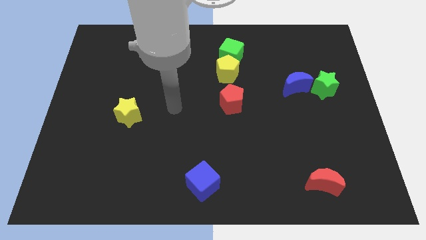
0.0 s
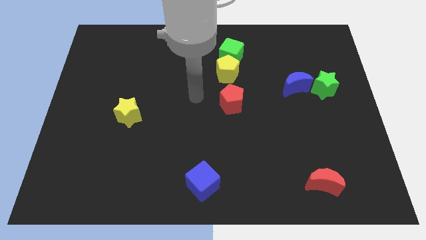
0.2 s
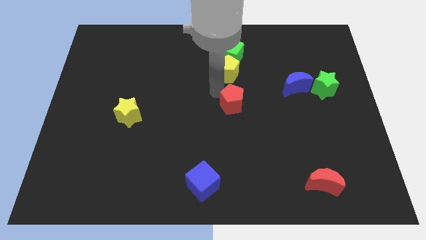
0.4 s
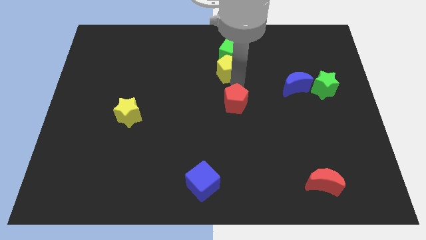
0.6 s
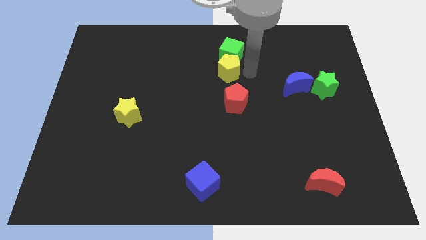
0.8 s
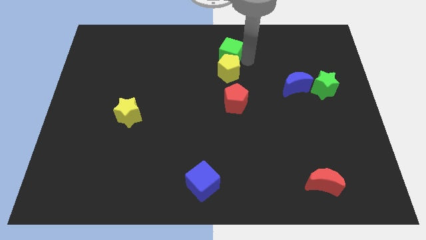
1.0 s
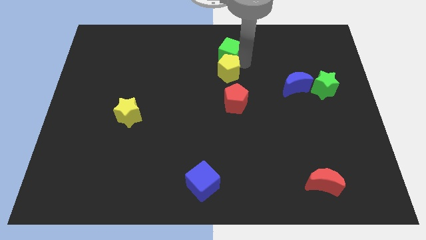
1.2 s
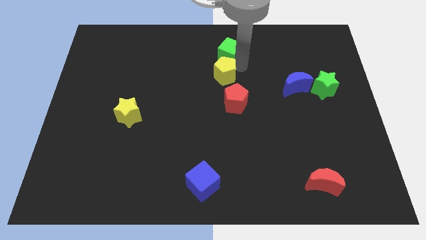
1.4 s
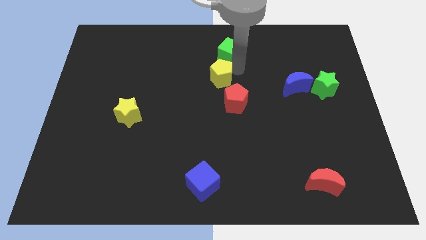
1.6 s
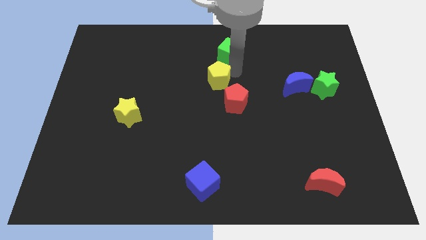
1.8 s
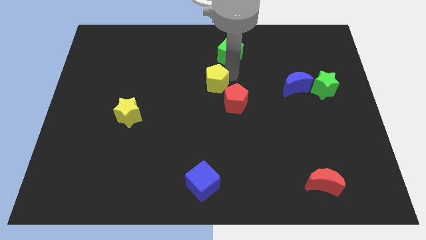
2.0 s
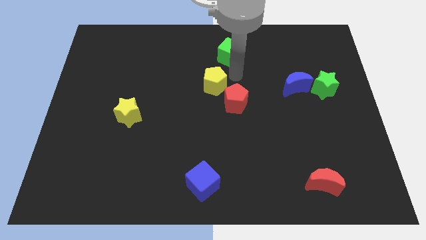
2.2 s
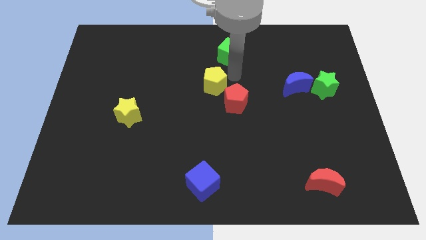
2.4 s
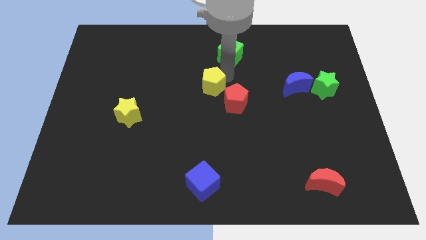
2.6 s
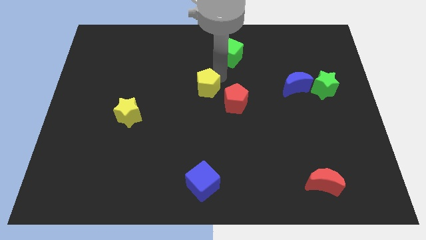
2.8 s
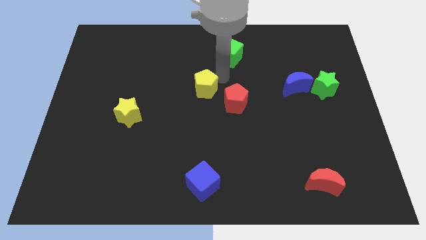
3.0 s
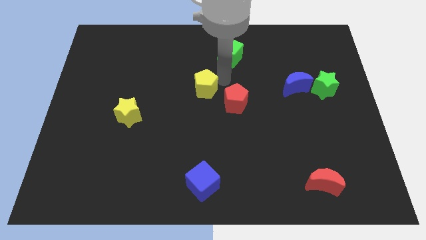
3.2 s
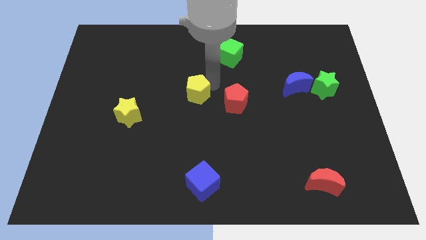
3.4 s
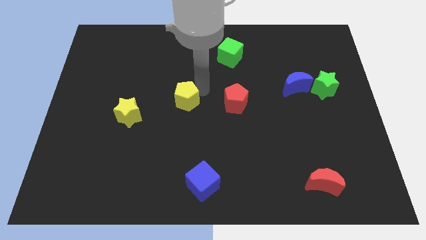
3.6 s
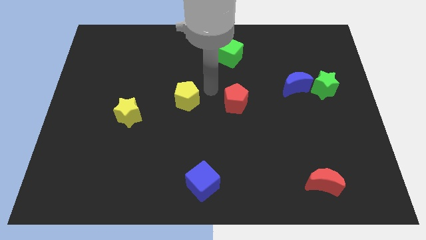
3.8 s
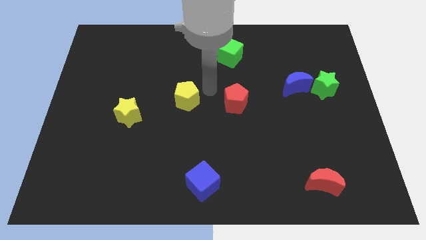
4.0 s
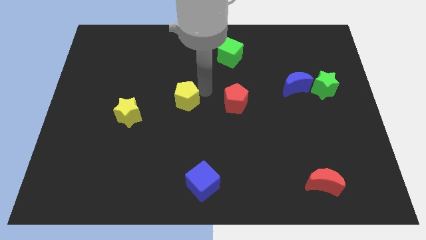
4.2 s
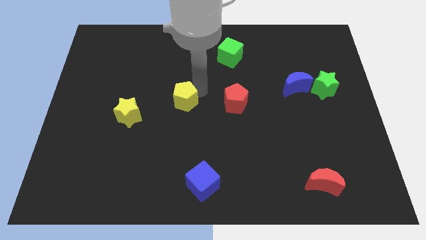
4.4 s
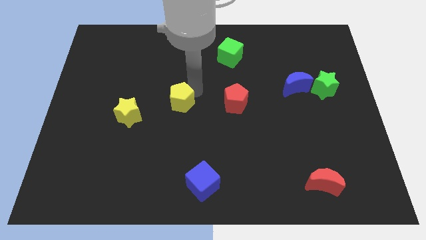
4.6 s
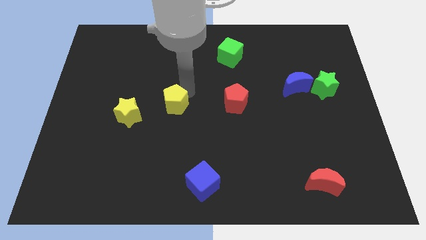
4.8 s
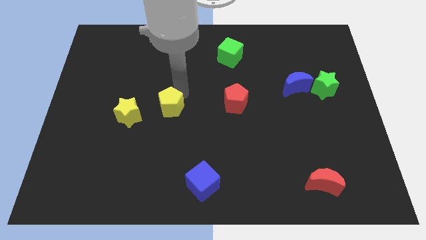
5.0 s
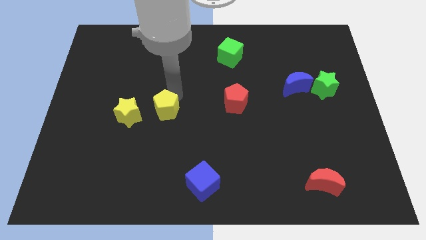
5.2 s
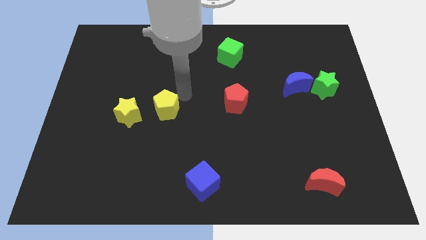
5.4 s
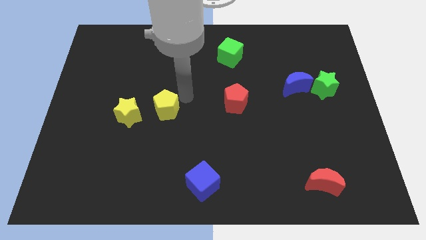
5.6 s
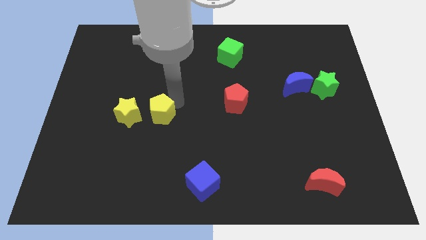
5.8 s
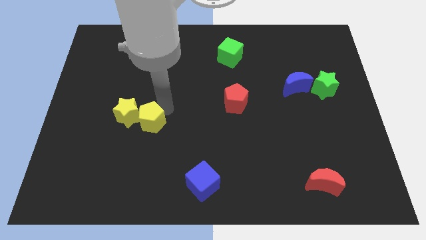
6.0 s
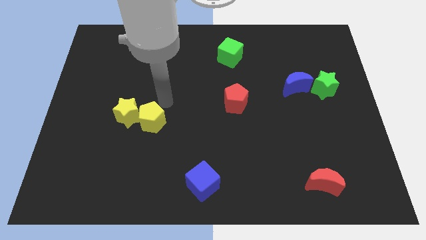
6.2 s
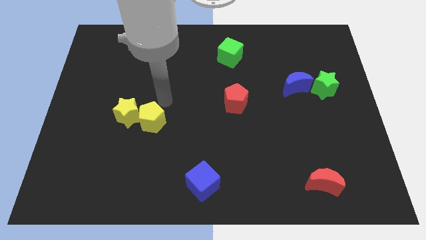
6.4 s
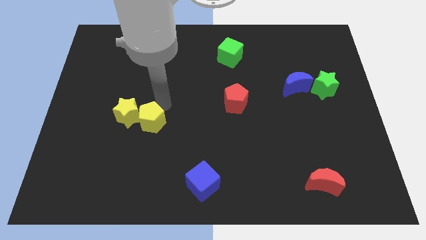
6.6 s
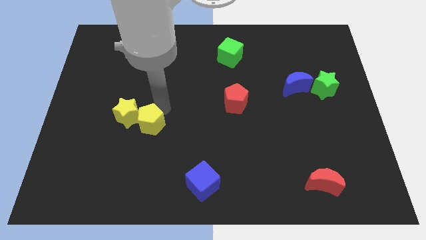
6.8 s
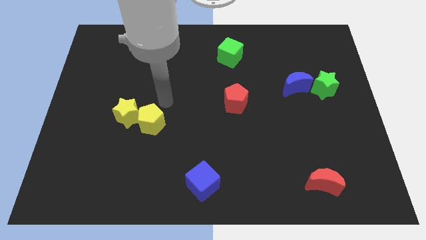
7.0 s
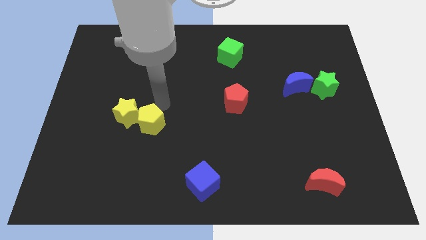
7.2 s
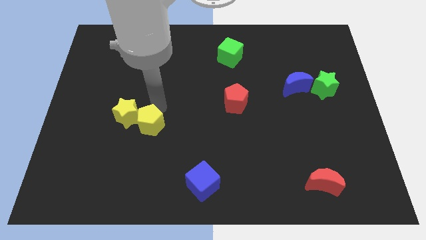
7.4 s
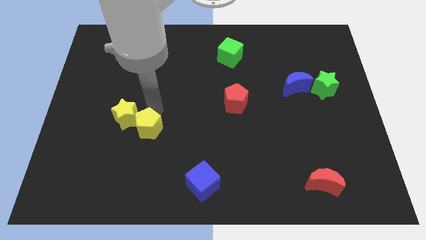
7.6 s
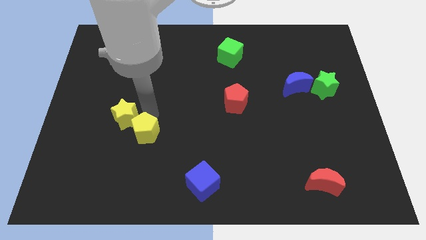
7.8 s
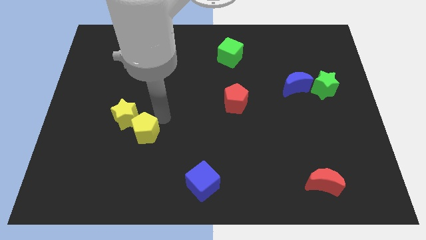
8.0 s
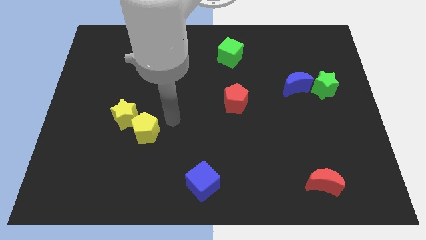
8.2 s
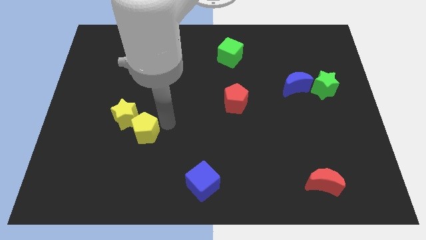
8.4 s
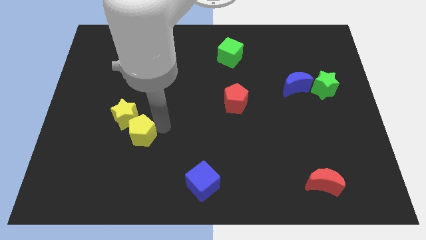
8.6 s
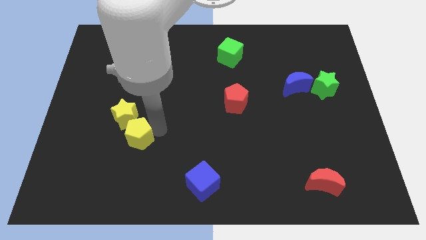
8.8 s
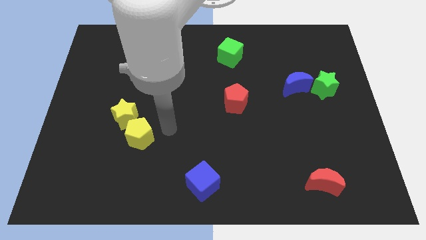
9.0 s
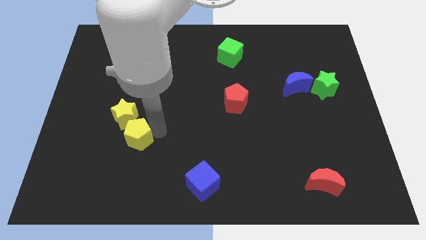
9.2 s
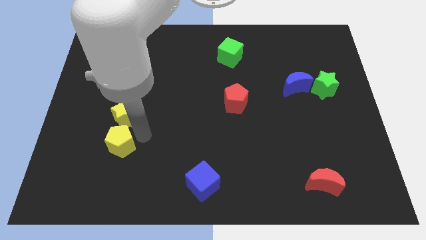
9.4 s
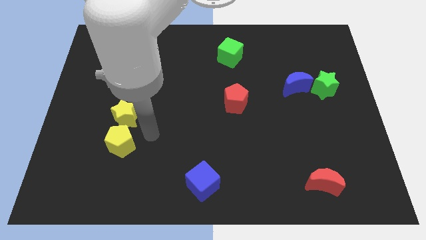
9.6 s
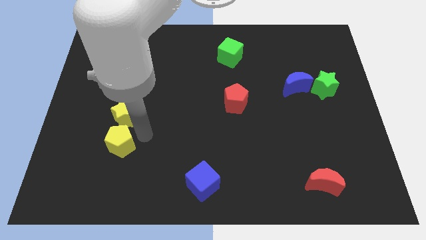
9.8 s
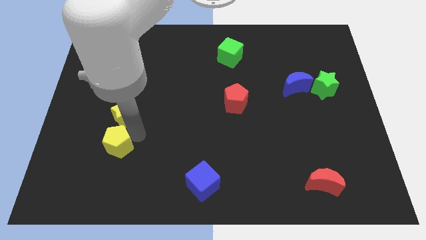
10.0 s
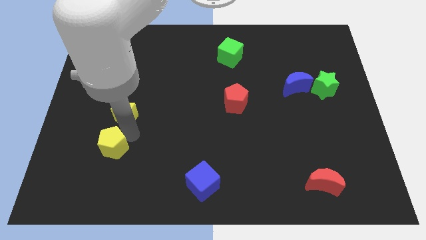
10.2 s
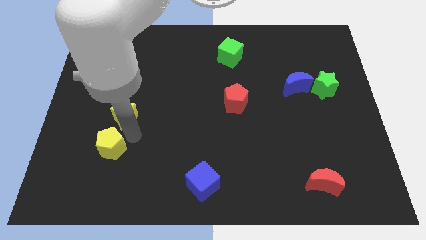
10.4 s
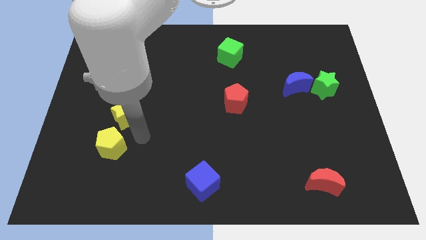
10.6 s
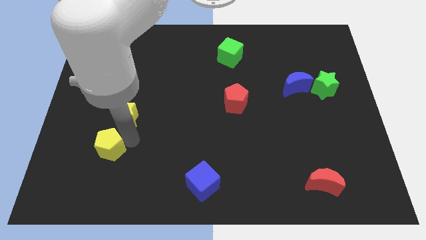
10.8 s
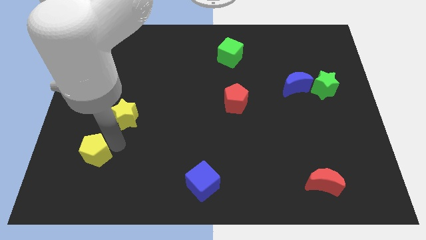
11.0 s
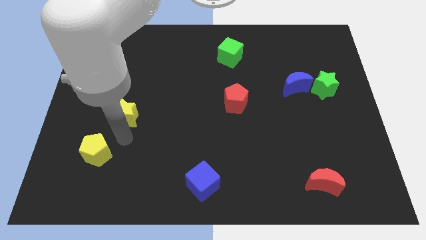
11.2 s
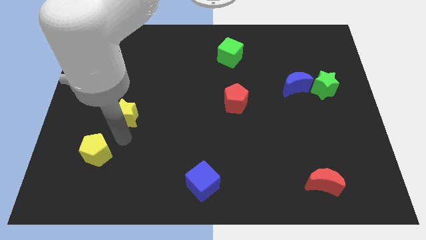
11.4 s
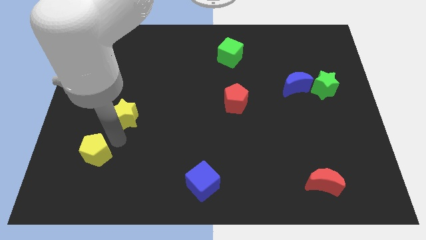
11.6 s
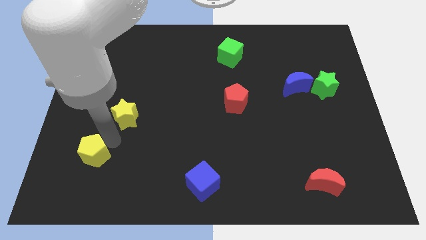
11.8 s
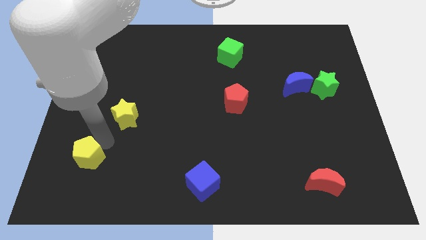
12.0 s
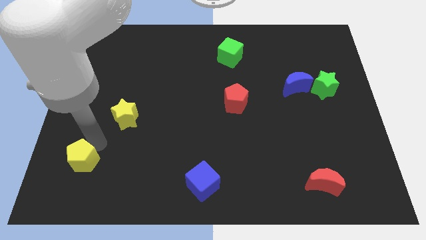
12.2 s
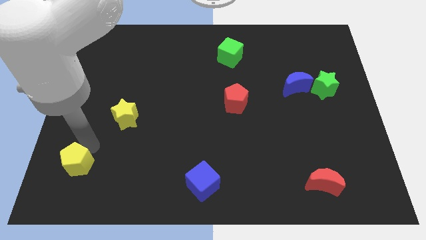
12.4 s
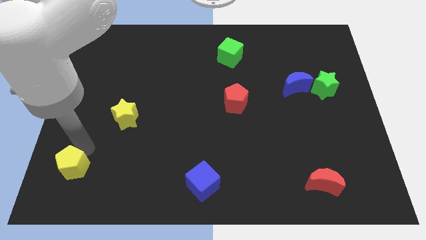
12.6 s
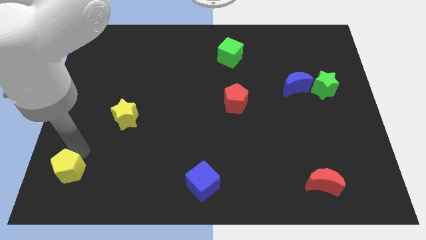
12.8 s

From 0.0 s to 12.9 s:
move the yellow pentagon to the bottom left corner

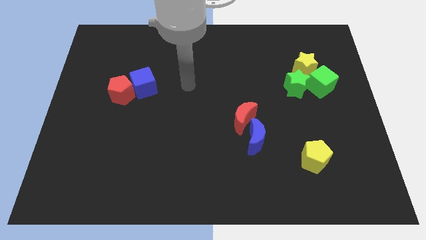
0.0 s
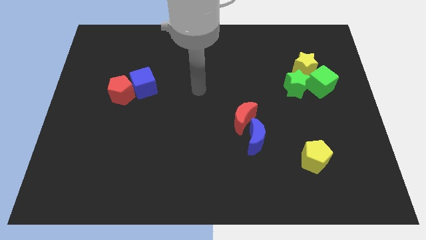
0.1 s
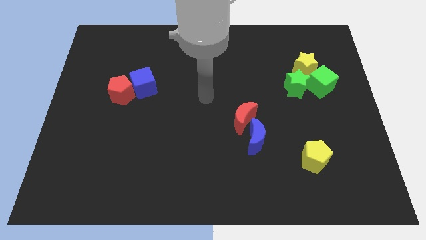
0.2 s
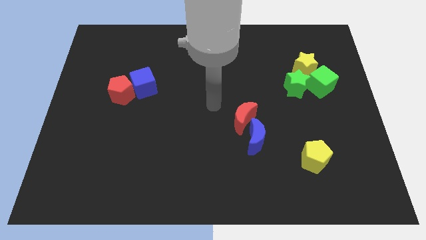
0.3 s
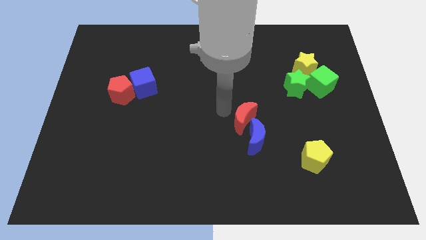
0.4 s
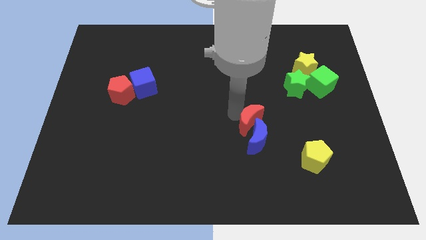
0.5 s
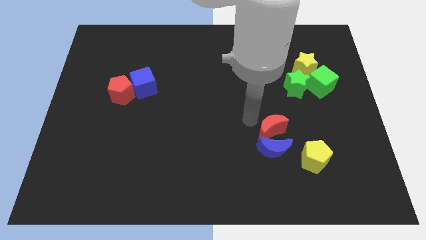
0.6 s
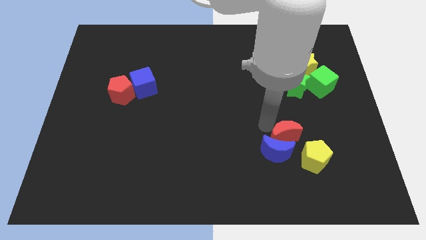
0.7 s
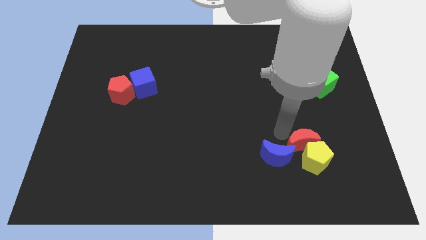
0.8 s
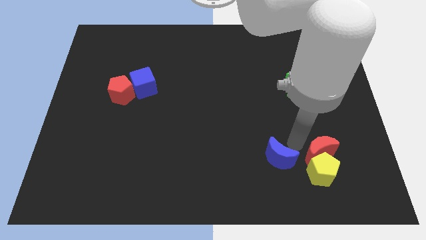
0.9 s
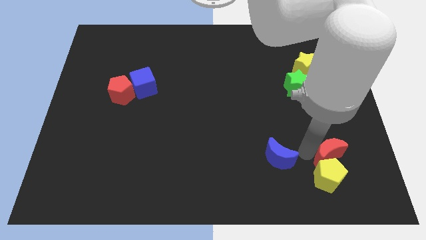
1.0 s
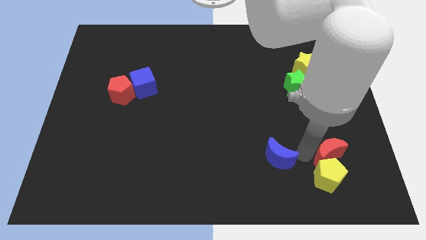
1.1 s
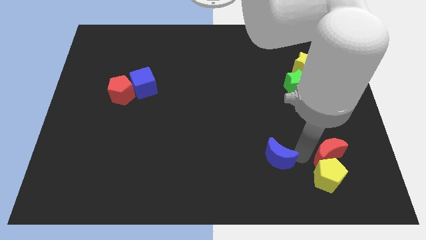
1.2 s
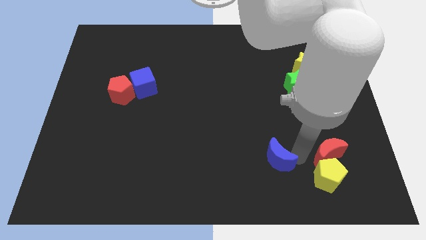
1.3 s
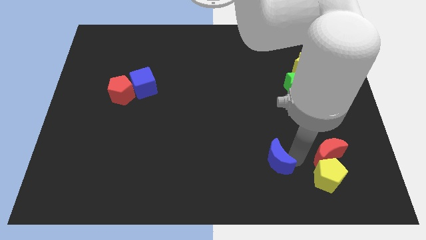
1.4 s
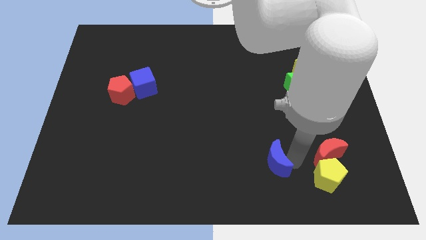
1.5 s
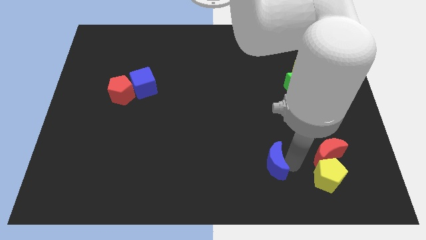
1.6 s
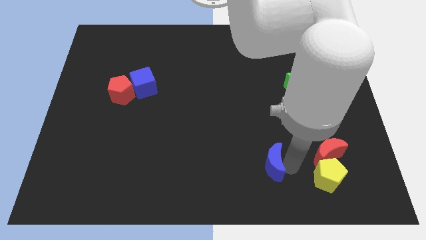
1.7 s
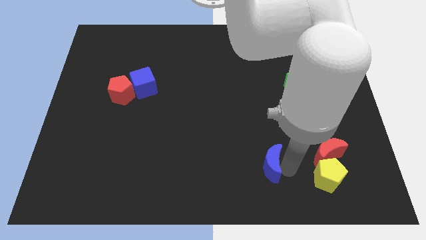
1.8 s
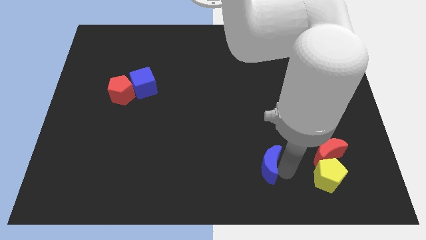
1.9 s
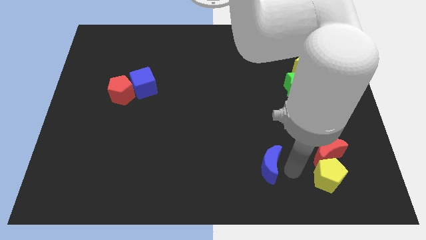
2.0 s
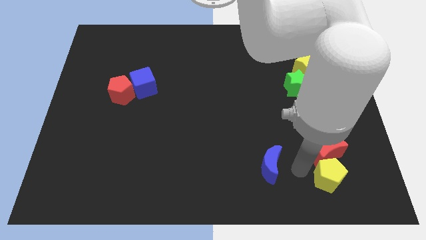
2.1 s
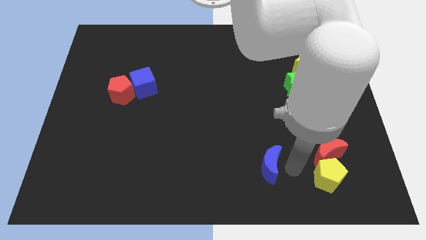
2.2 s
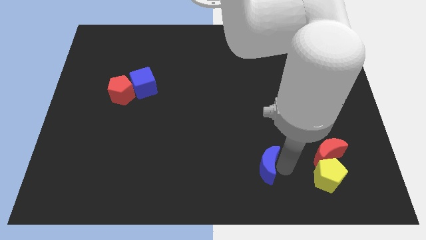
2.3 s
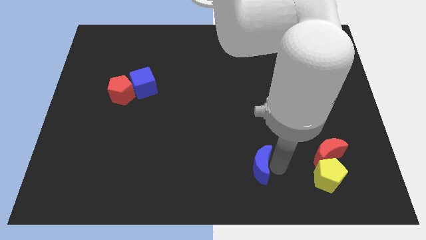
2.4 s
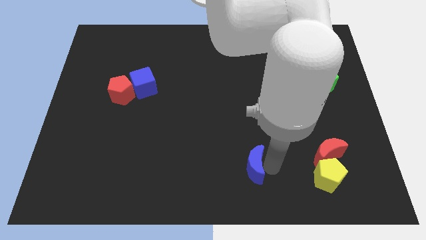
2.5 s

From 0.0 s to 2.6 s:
move the blue moon to the bottom side
